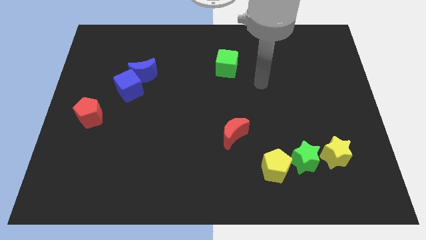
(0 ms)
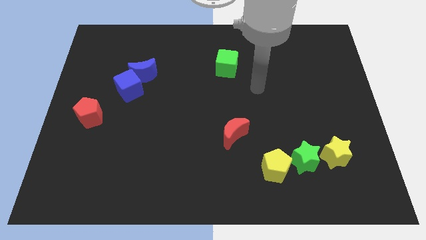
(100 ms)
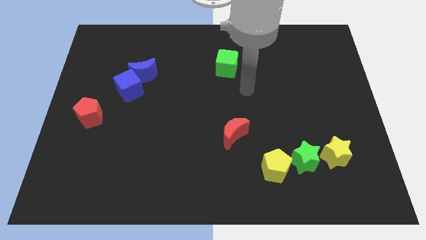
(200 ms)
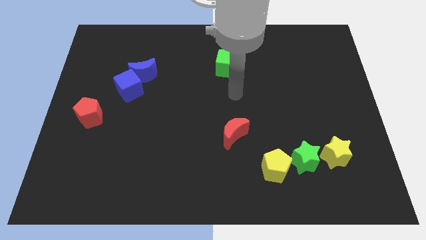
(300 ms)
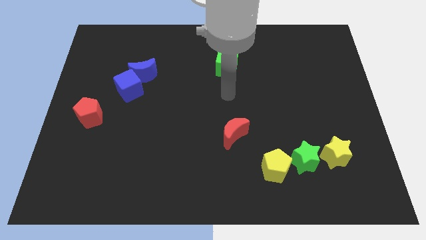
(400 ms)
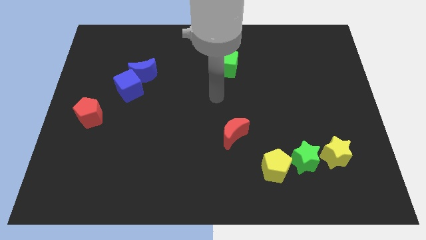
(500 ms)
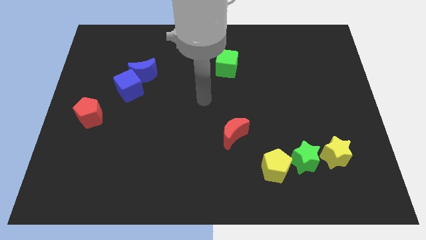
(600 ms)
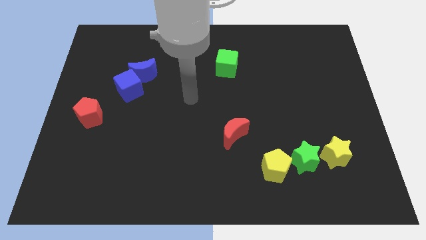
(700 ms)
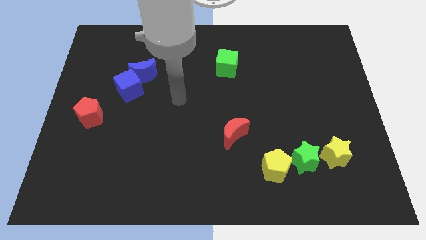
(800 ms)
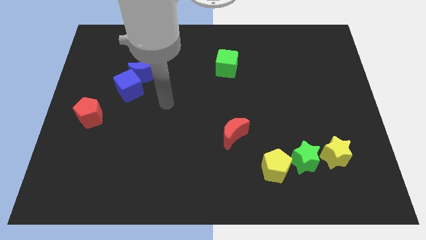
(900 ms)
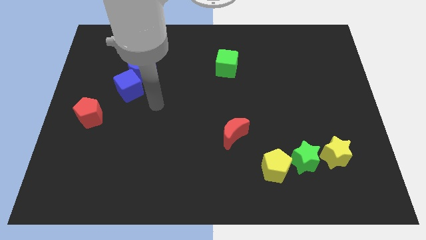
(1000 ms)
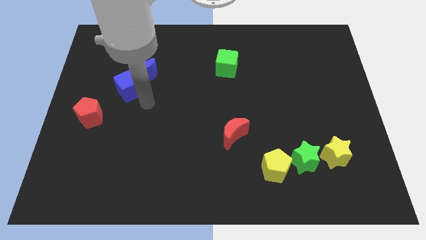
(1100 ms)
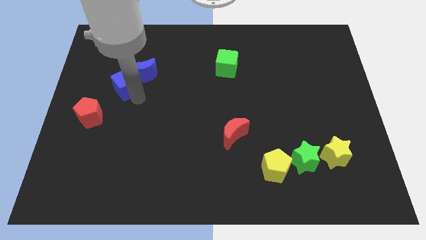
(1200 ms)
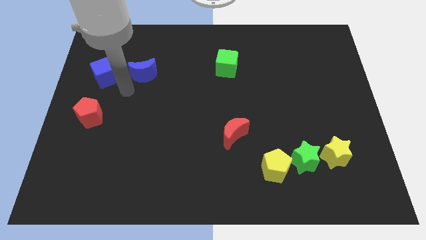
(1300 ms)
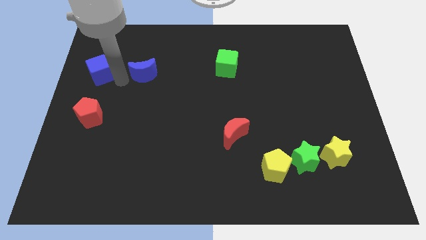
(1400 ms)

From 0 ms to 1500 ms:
separate the blue moon from the blue cube

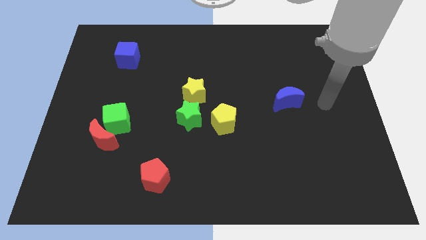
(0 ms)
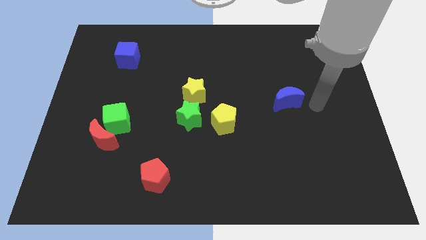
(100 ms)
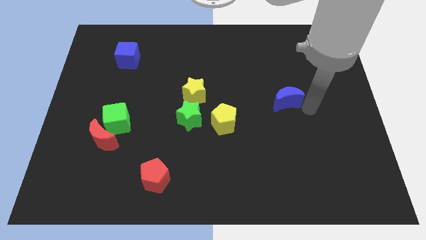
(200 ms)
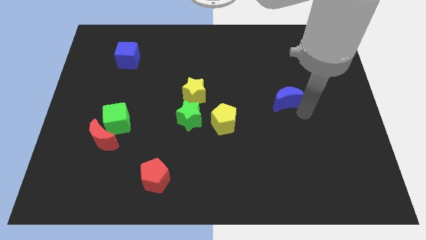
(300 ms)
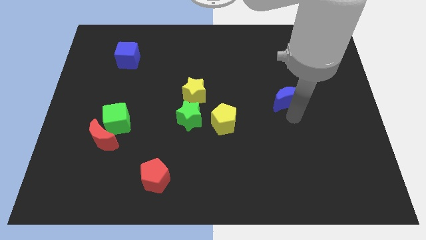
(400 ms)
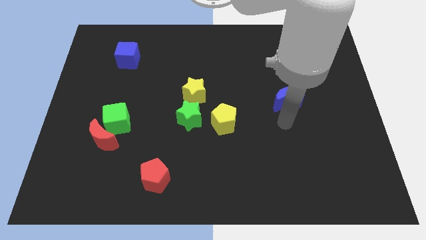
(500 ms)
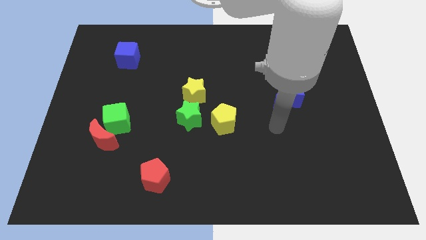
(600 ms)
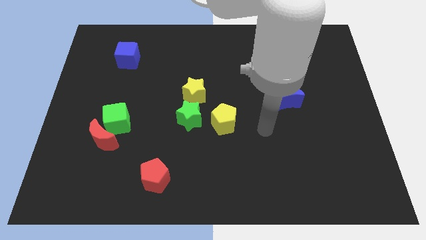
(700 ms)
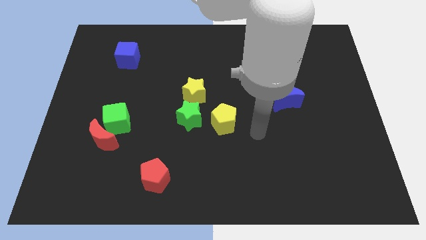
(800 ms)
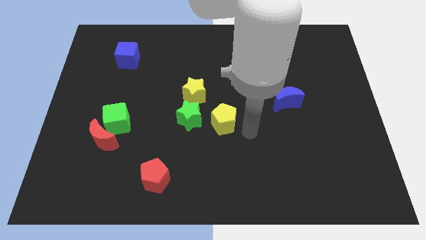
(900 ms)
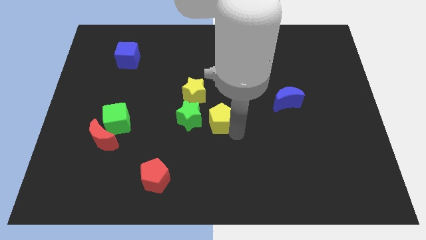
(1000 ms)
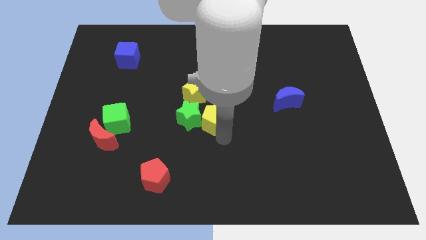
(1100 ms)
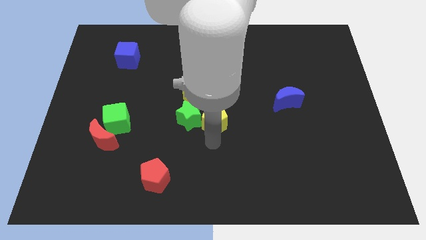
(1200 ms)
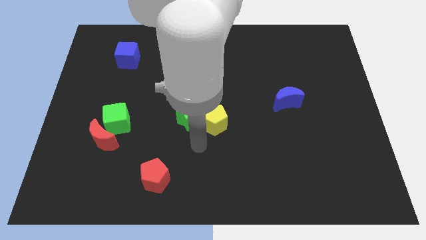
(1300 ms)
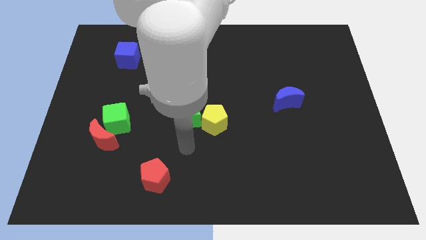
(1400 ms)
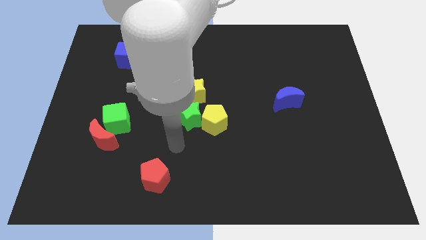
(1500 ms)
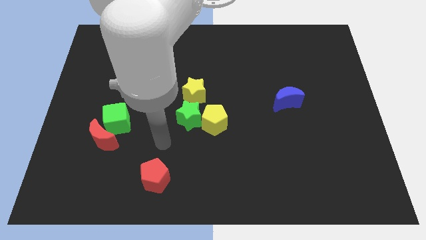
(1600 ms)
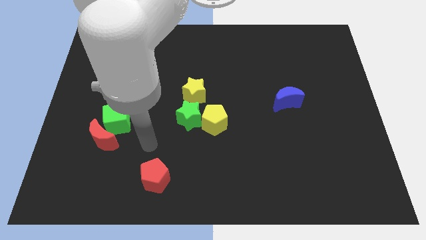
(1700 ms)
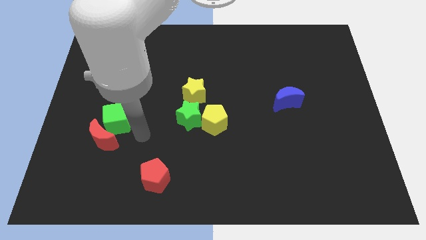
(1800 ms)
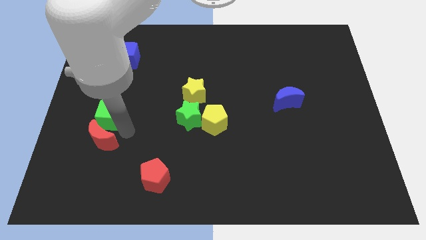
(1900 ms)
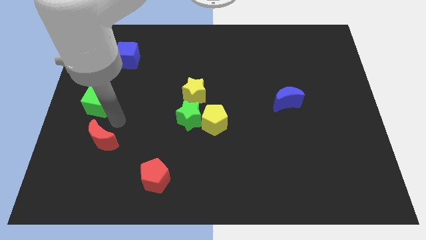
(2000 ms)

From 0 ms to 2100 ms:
move the red moon away from the green cube

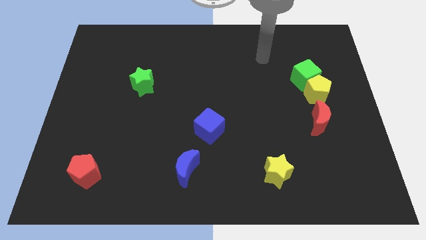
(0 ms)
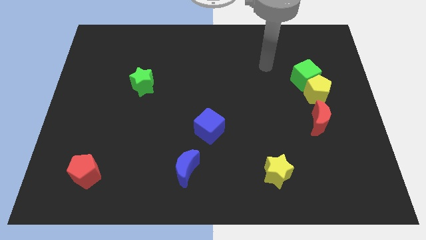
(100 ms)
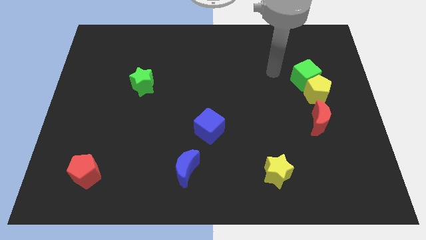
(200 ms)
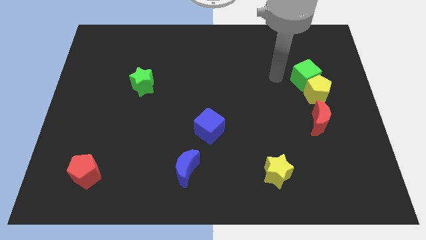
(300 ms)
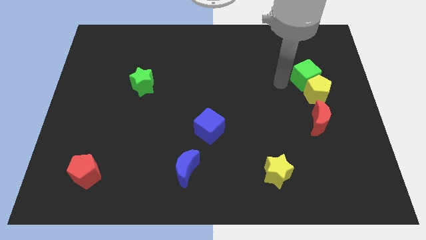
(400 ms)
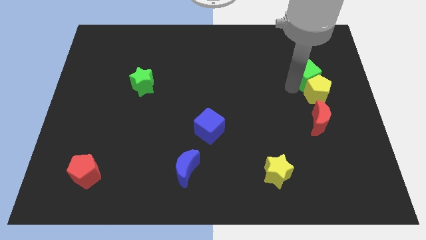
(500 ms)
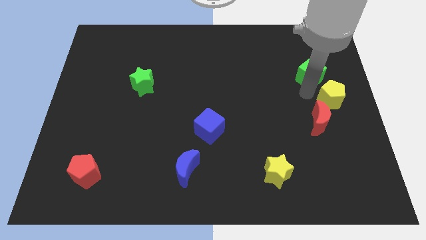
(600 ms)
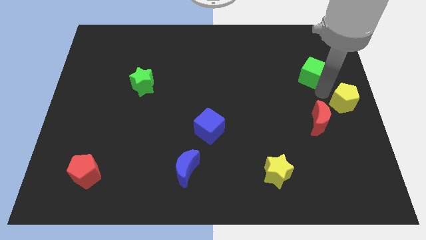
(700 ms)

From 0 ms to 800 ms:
separate the green cube from the yellow pentagon

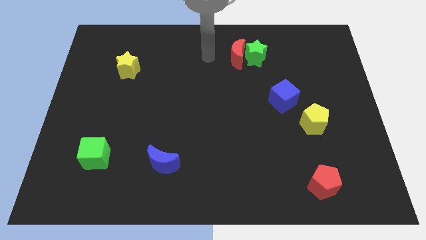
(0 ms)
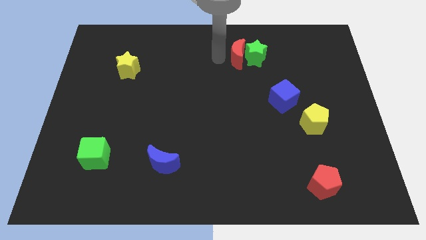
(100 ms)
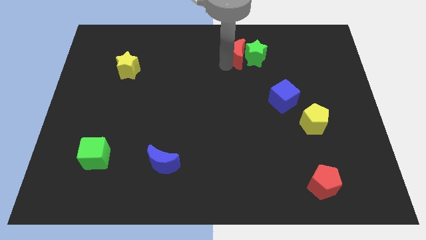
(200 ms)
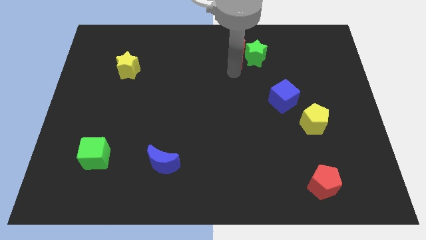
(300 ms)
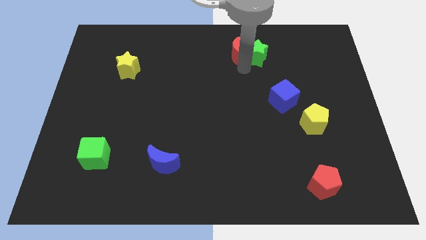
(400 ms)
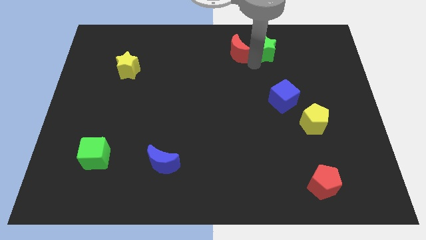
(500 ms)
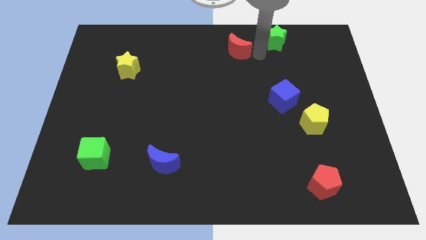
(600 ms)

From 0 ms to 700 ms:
pull the red moon apart from the green star

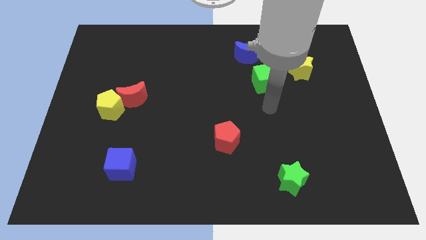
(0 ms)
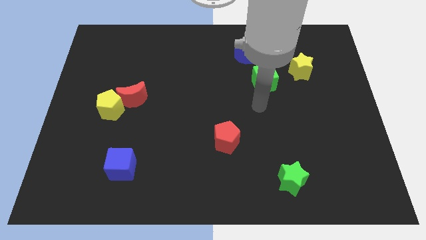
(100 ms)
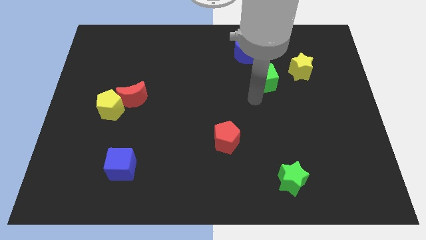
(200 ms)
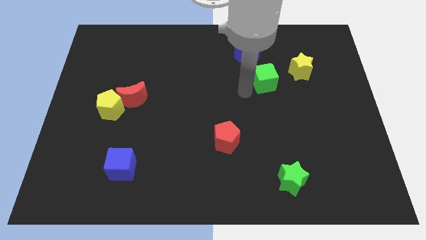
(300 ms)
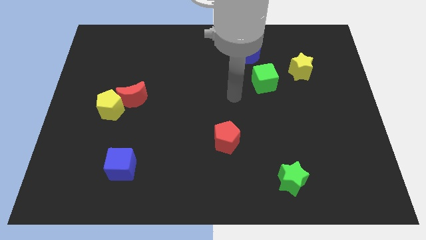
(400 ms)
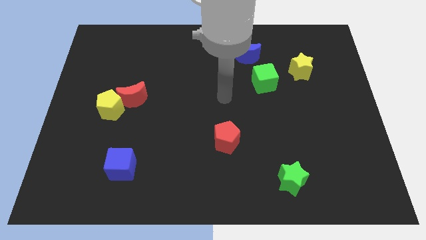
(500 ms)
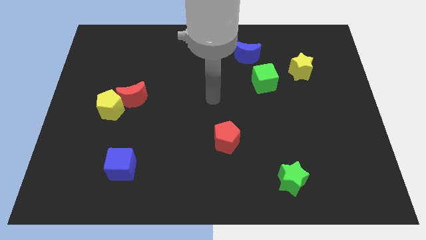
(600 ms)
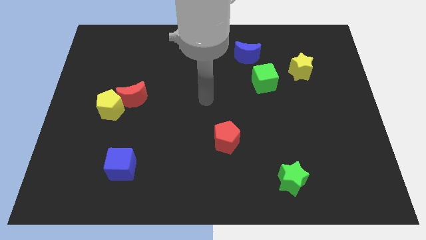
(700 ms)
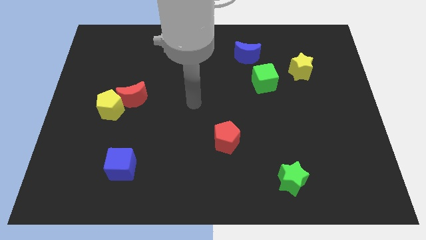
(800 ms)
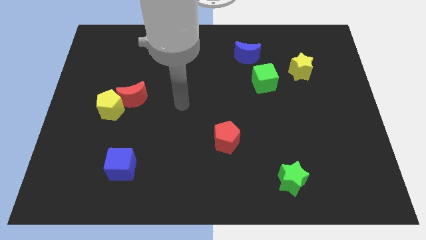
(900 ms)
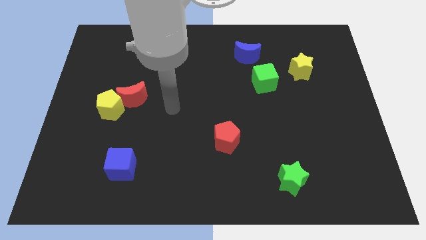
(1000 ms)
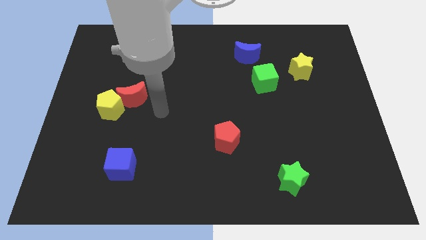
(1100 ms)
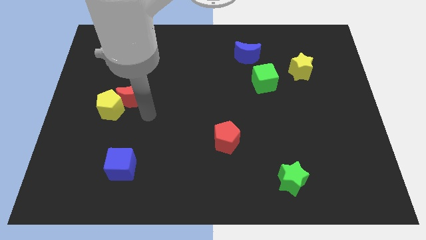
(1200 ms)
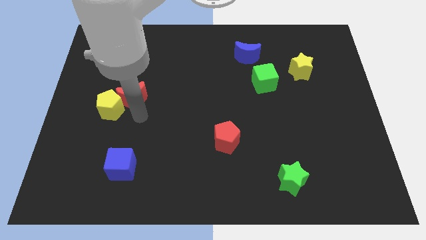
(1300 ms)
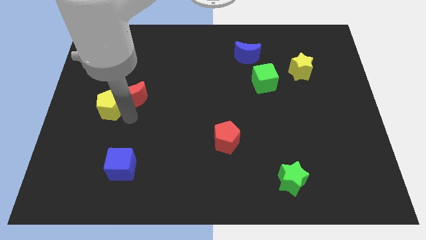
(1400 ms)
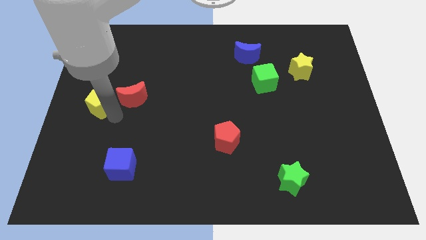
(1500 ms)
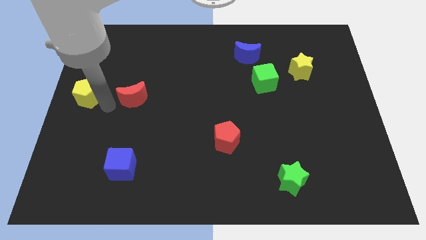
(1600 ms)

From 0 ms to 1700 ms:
separate the red moon from the yellow pentagon

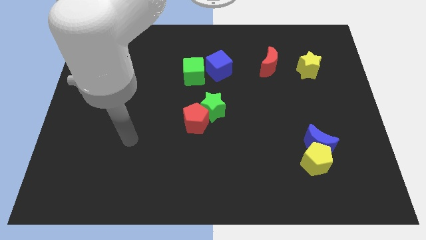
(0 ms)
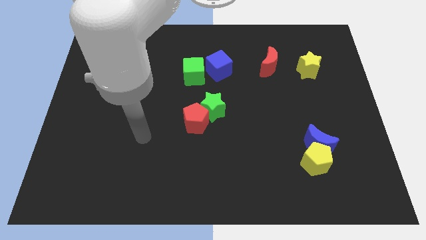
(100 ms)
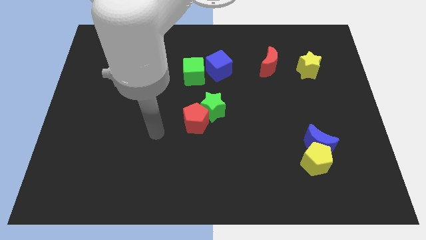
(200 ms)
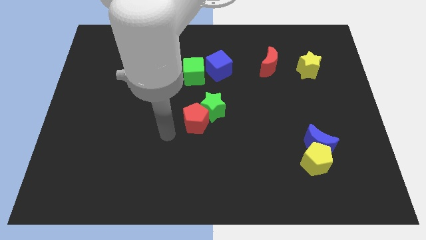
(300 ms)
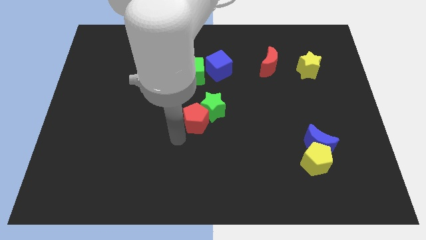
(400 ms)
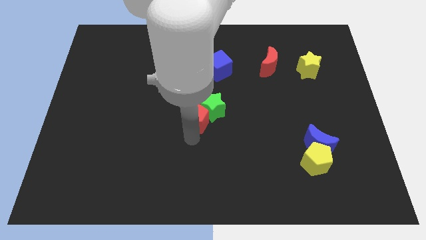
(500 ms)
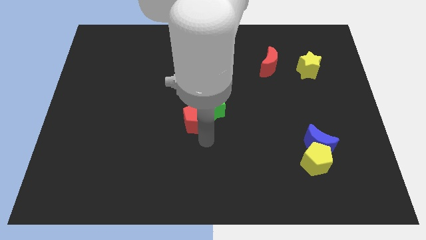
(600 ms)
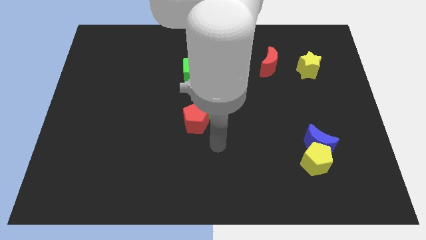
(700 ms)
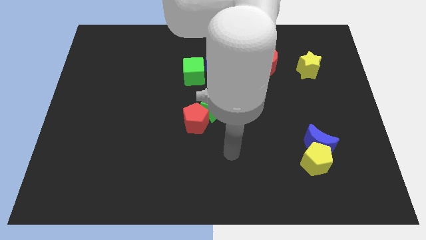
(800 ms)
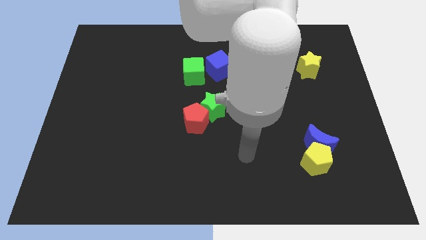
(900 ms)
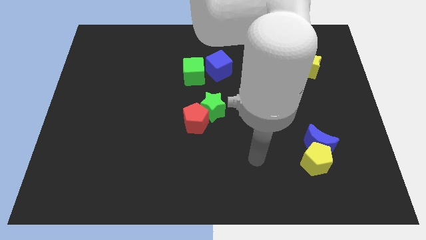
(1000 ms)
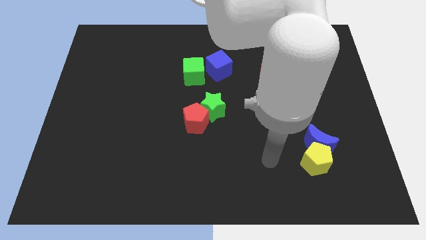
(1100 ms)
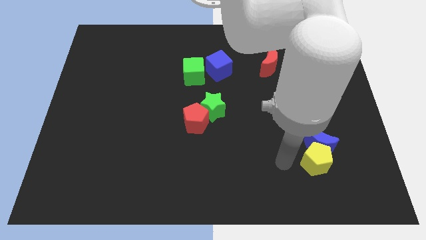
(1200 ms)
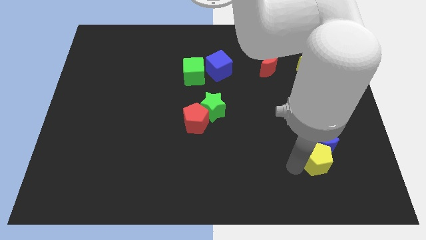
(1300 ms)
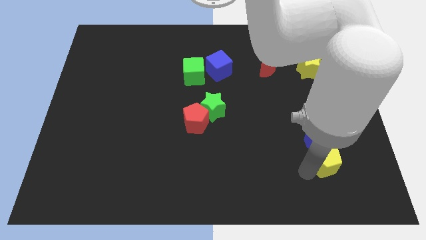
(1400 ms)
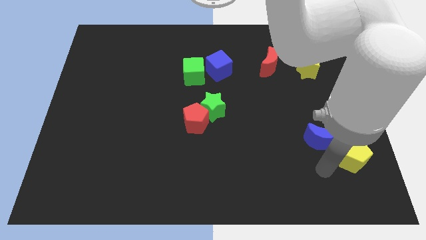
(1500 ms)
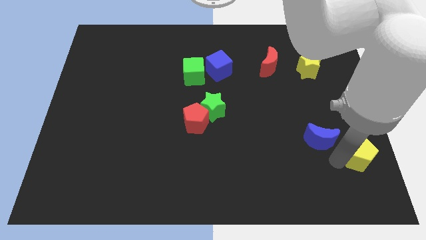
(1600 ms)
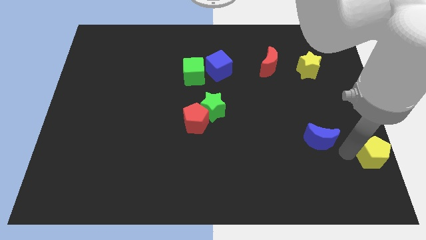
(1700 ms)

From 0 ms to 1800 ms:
separate the blue moon from the yellow pentagon

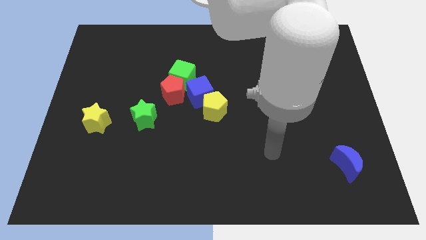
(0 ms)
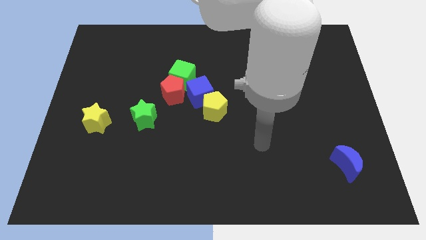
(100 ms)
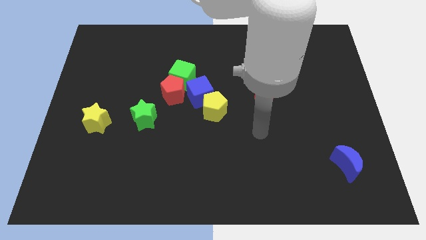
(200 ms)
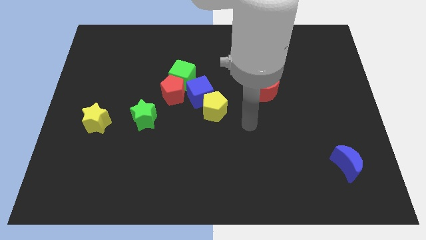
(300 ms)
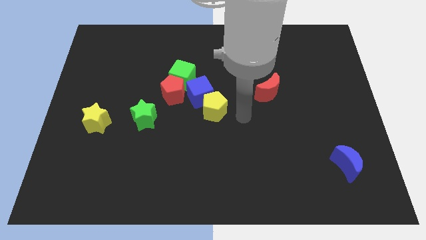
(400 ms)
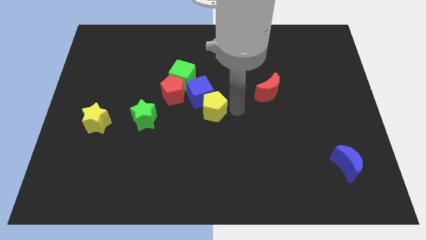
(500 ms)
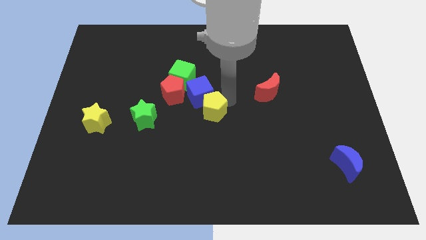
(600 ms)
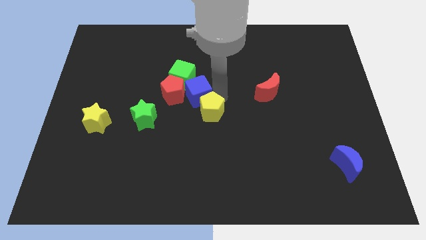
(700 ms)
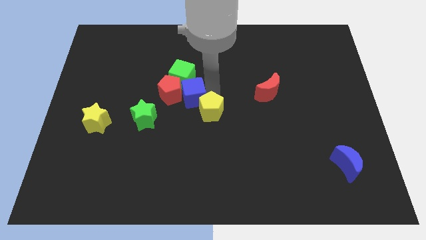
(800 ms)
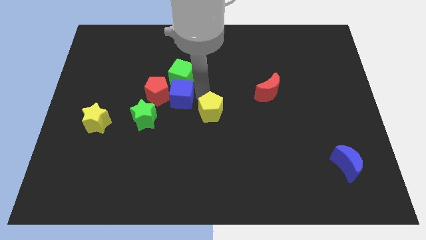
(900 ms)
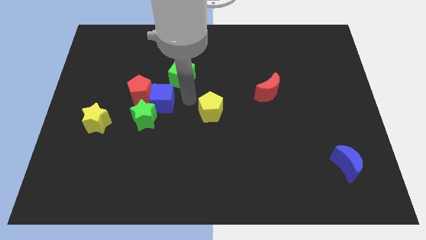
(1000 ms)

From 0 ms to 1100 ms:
separate the yellow pentagon from the blue cube
